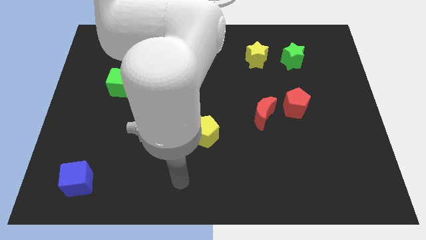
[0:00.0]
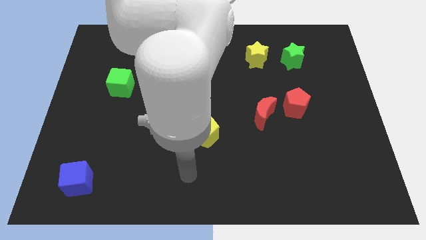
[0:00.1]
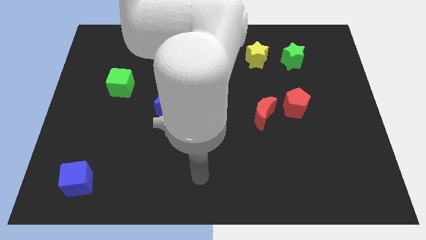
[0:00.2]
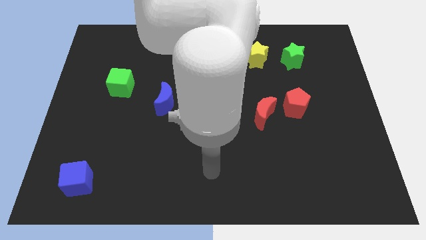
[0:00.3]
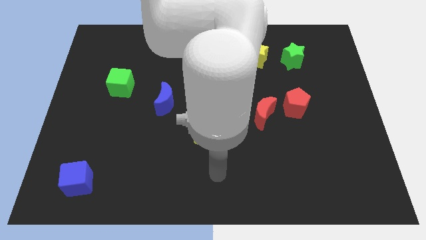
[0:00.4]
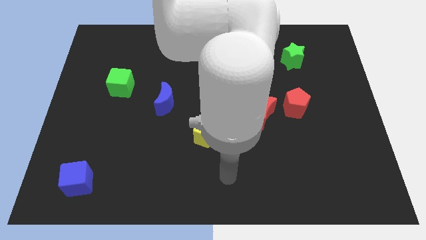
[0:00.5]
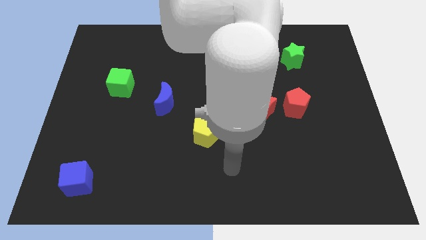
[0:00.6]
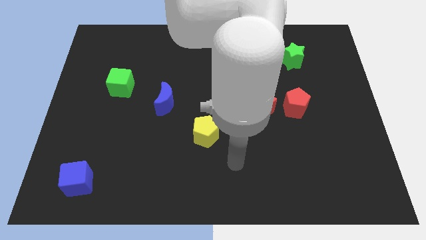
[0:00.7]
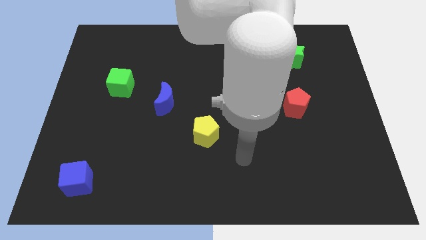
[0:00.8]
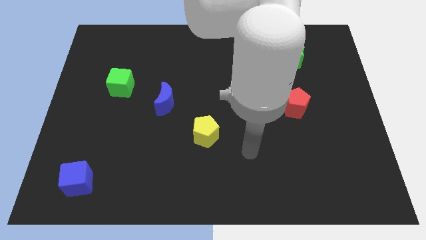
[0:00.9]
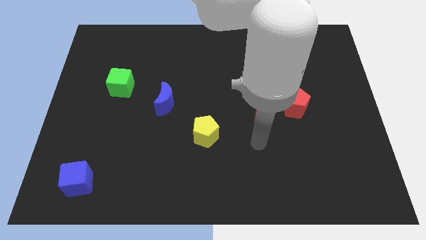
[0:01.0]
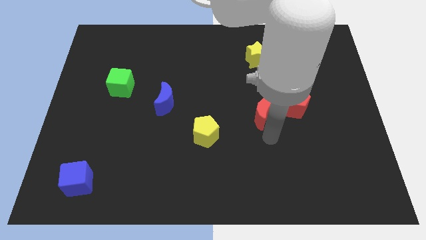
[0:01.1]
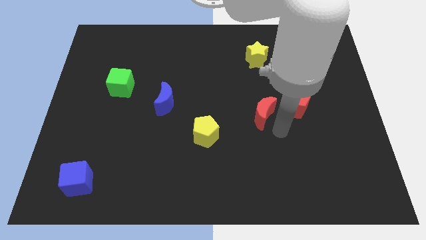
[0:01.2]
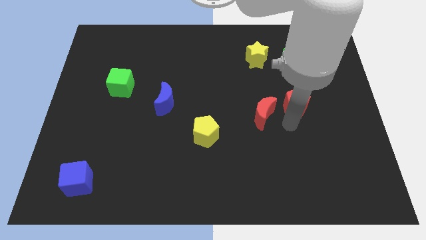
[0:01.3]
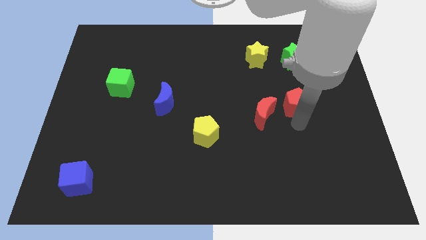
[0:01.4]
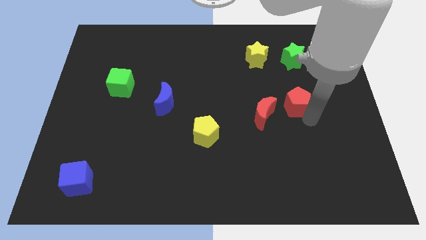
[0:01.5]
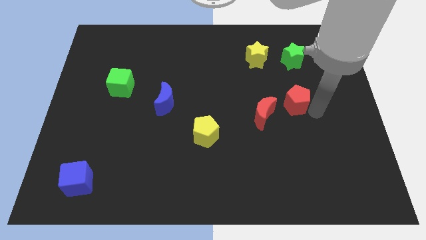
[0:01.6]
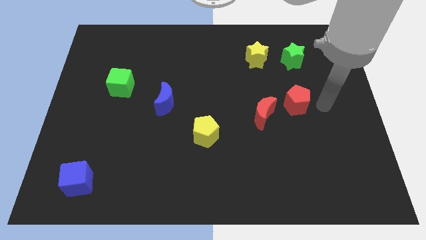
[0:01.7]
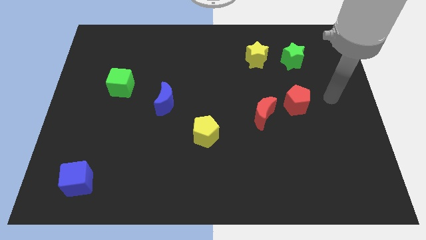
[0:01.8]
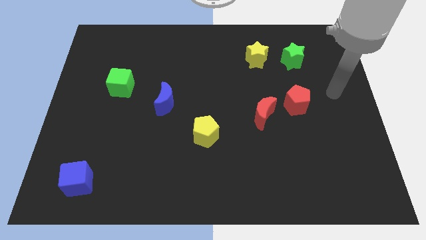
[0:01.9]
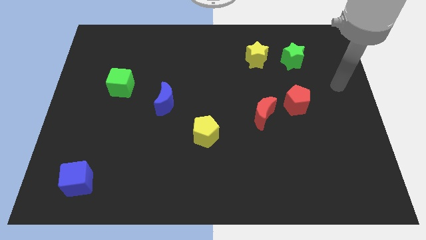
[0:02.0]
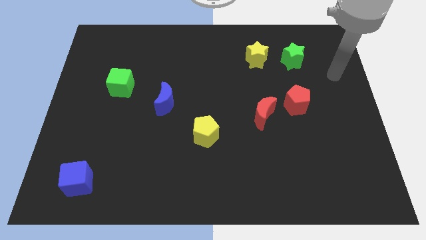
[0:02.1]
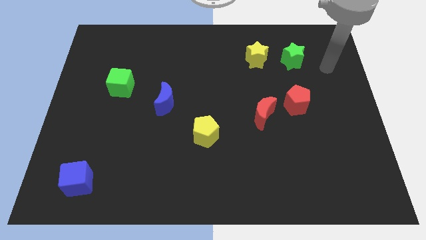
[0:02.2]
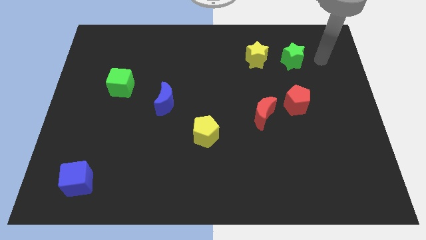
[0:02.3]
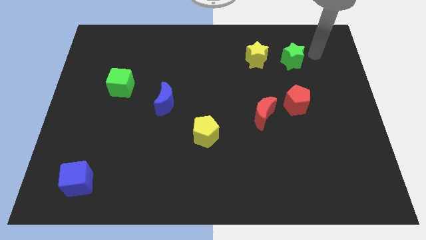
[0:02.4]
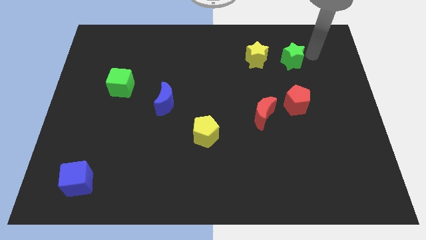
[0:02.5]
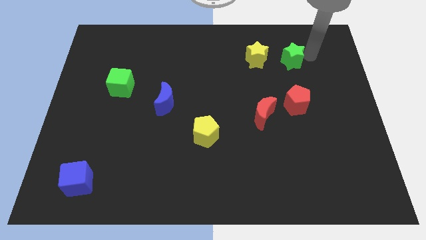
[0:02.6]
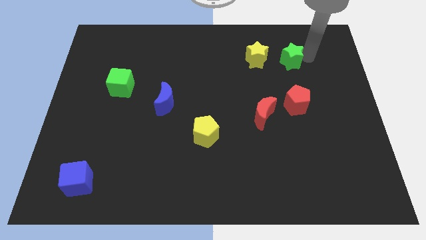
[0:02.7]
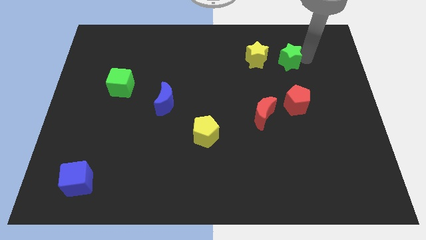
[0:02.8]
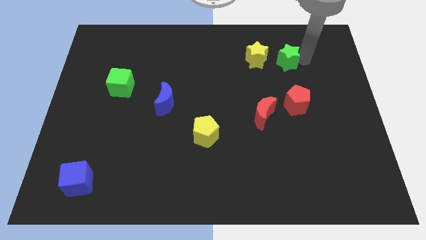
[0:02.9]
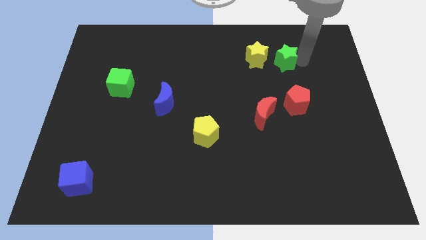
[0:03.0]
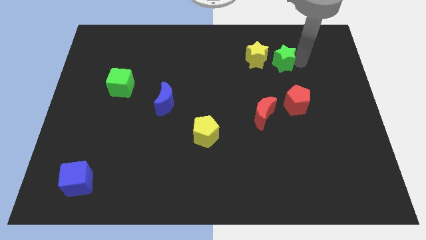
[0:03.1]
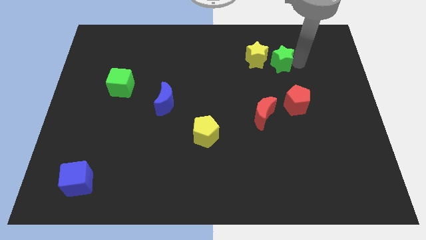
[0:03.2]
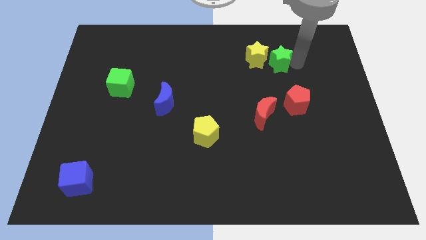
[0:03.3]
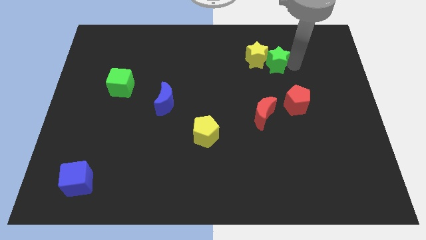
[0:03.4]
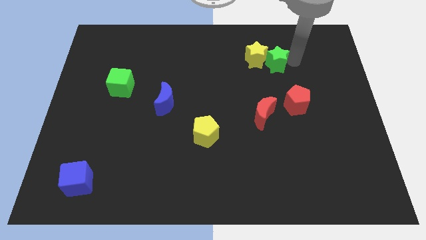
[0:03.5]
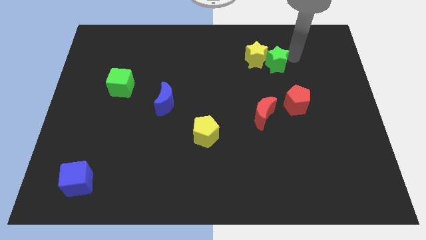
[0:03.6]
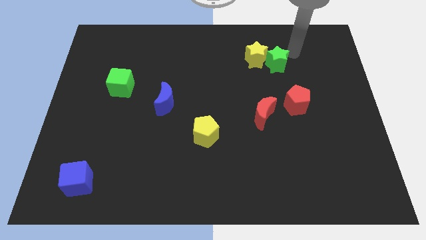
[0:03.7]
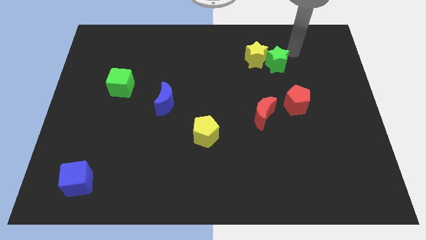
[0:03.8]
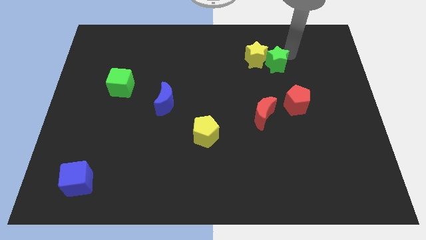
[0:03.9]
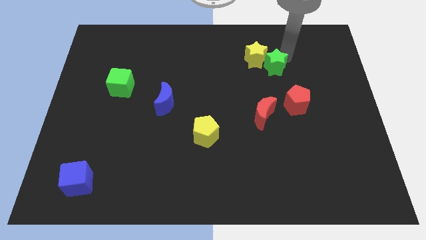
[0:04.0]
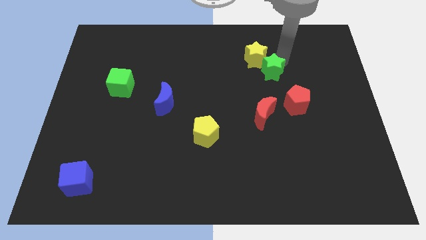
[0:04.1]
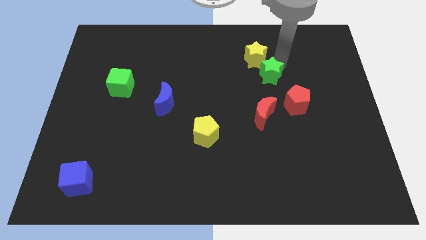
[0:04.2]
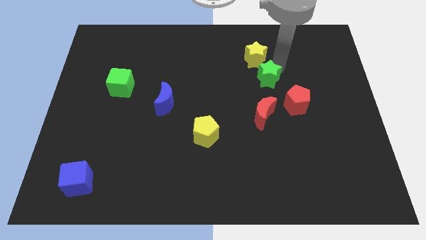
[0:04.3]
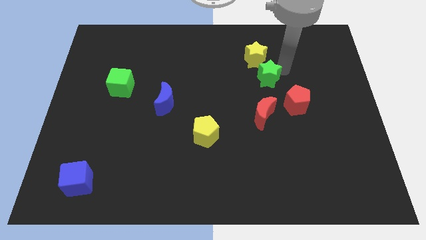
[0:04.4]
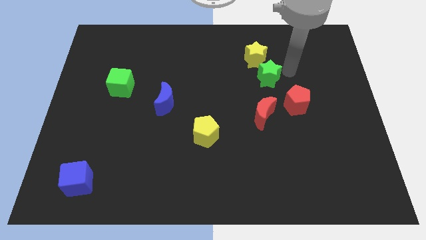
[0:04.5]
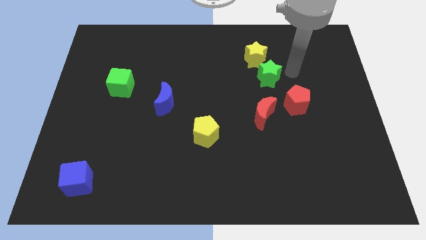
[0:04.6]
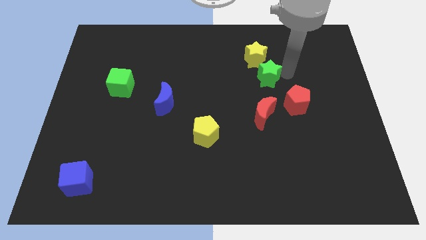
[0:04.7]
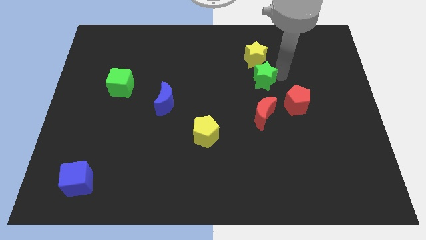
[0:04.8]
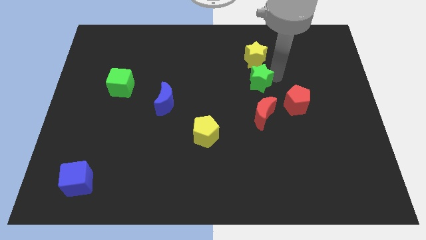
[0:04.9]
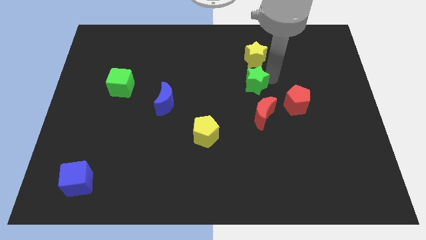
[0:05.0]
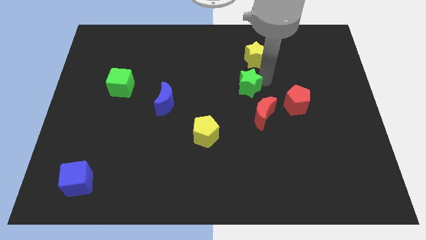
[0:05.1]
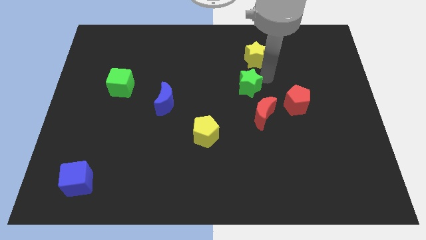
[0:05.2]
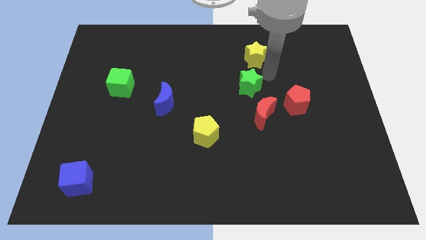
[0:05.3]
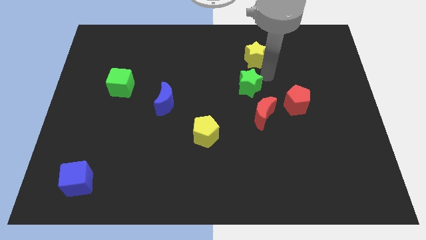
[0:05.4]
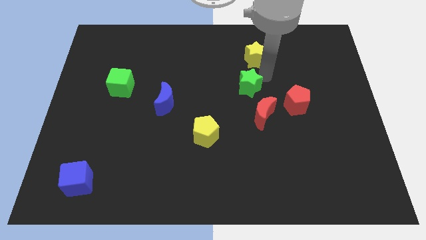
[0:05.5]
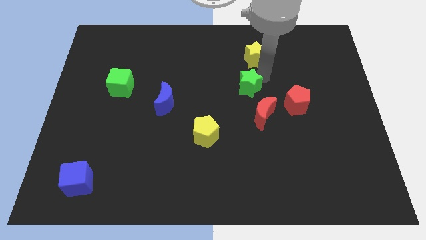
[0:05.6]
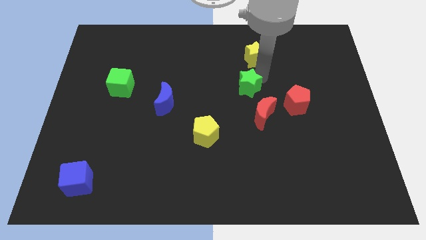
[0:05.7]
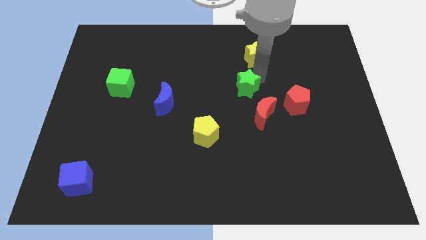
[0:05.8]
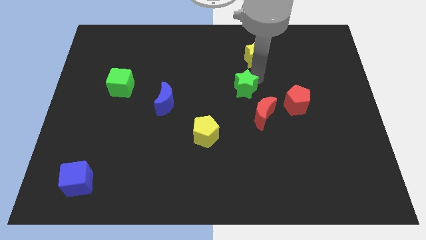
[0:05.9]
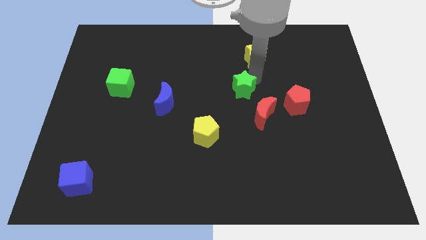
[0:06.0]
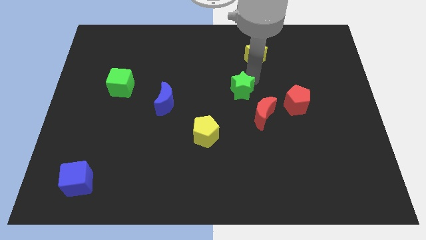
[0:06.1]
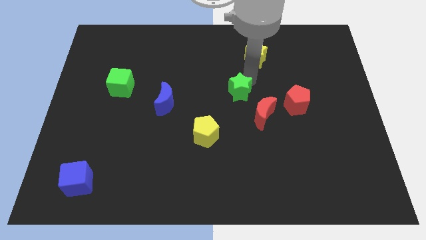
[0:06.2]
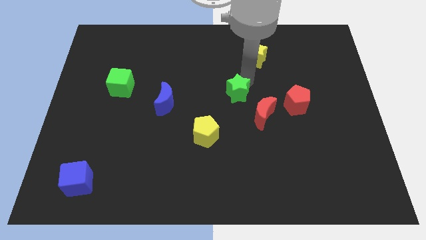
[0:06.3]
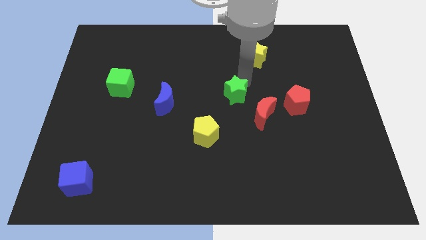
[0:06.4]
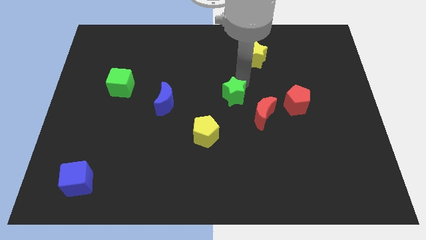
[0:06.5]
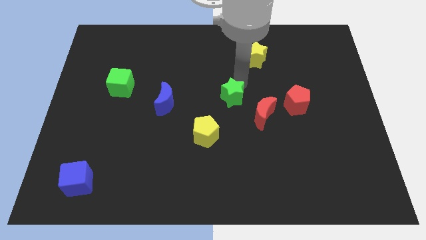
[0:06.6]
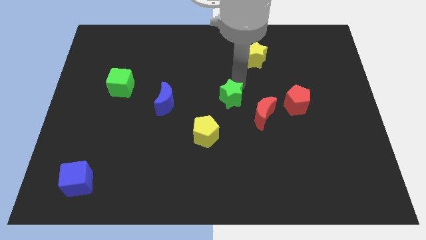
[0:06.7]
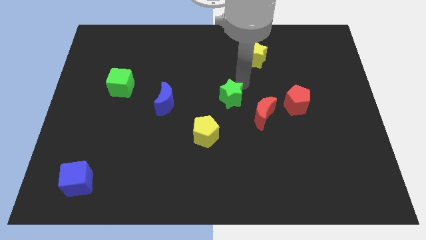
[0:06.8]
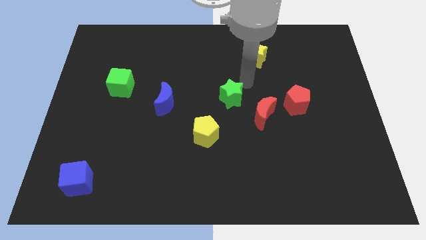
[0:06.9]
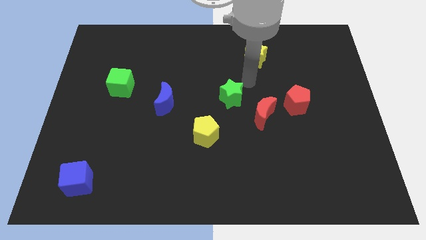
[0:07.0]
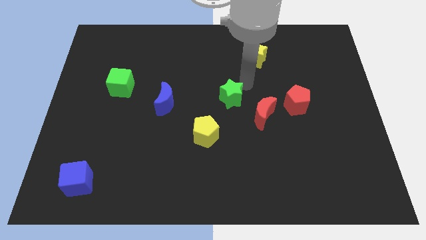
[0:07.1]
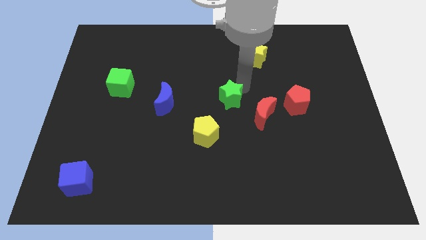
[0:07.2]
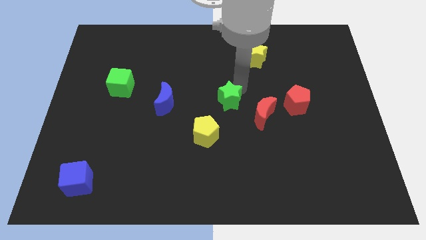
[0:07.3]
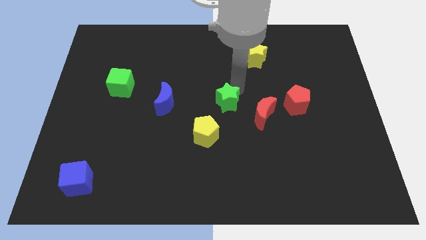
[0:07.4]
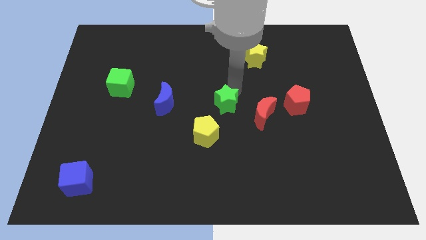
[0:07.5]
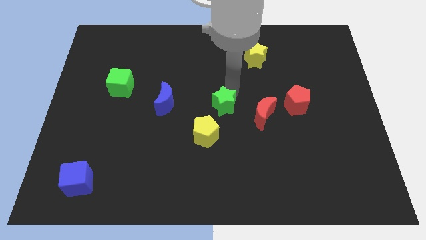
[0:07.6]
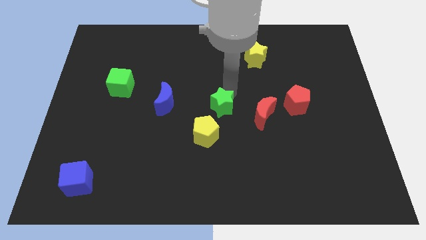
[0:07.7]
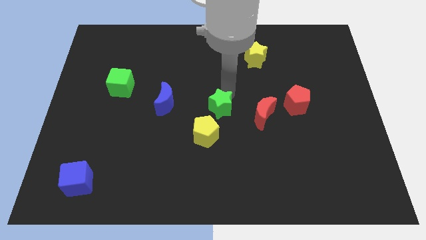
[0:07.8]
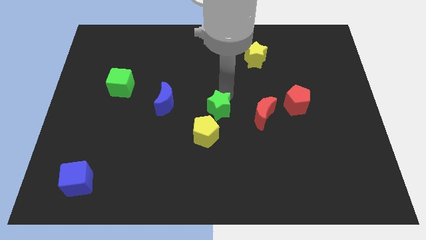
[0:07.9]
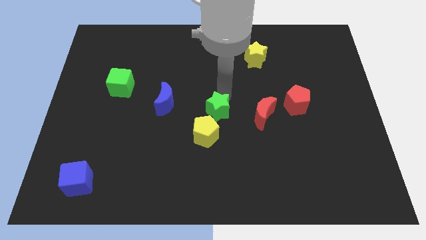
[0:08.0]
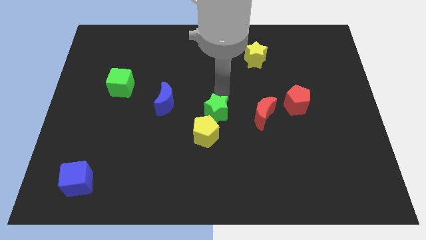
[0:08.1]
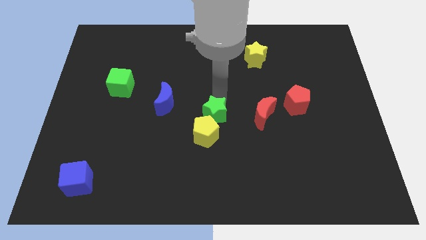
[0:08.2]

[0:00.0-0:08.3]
put the green star to the yellow pentagon
